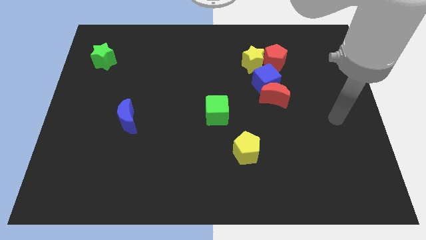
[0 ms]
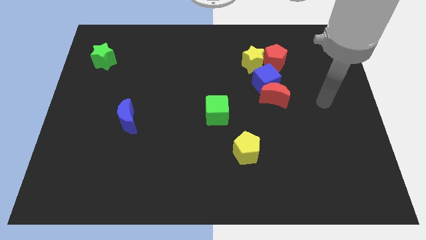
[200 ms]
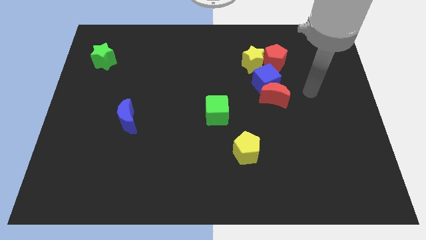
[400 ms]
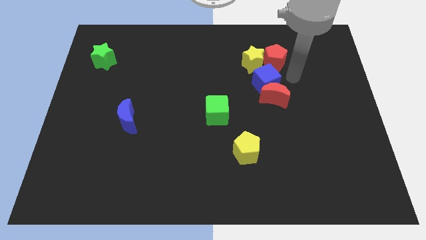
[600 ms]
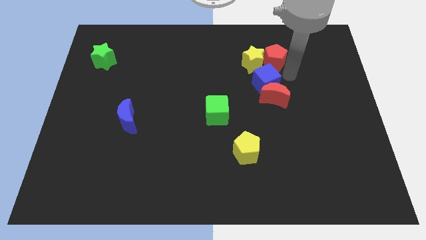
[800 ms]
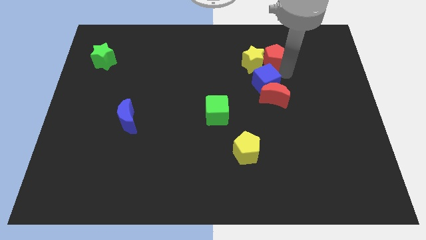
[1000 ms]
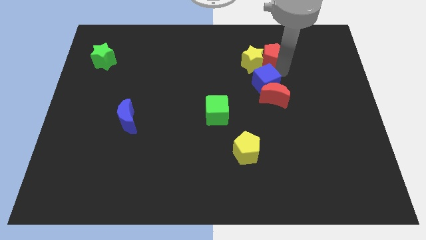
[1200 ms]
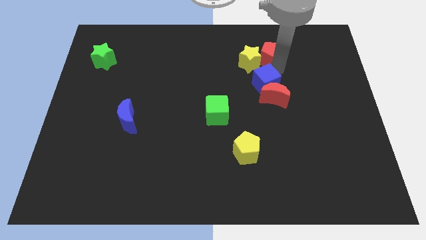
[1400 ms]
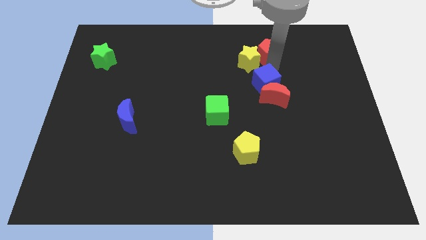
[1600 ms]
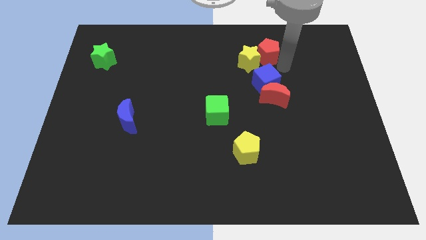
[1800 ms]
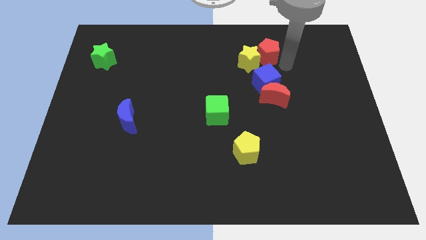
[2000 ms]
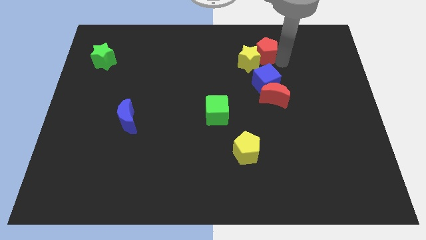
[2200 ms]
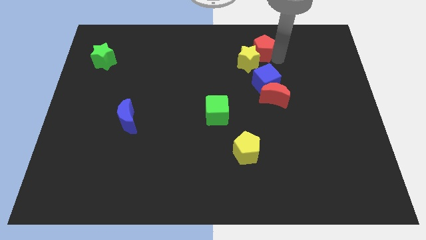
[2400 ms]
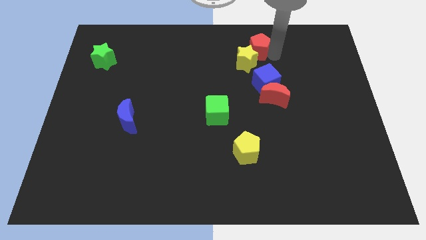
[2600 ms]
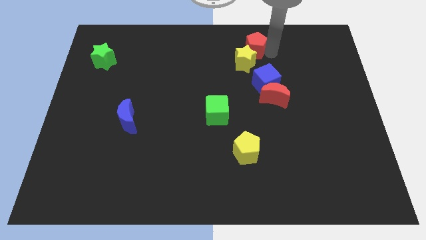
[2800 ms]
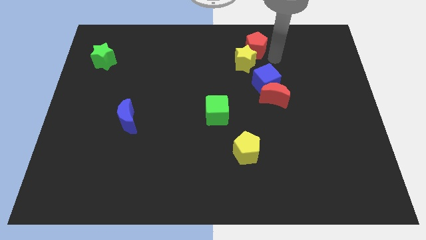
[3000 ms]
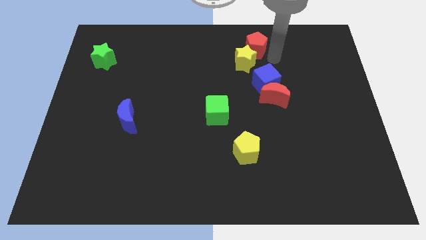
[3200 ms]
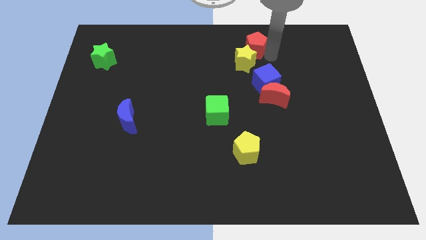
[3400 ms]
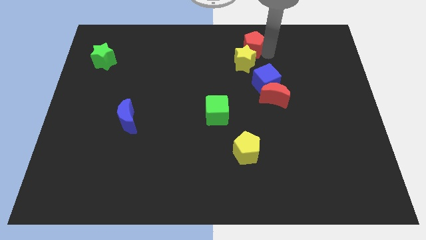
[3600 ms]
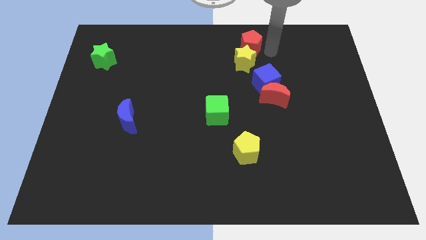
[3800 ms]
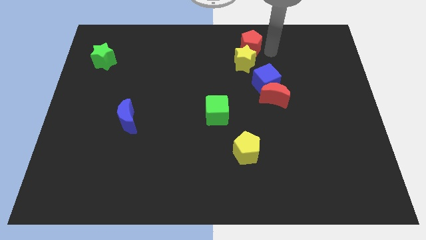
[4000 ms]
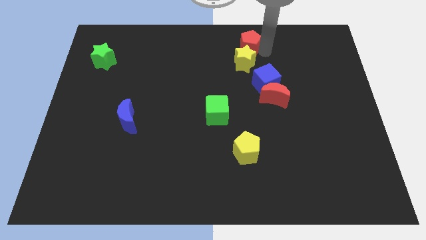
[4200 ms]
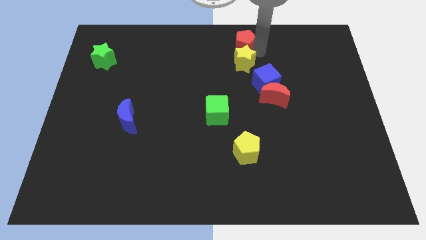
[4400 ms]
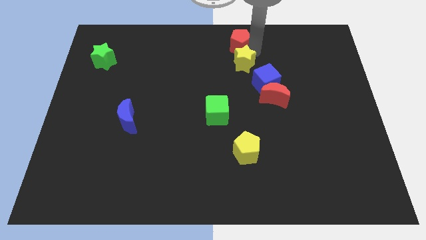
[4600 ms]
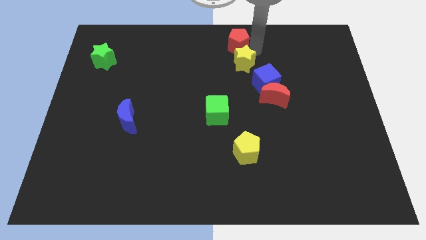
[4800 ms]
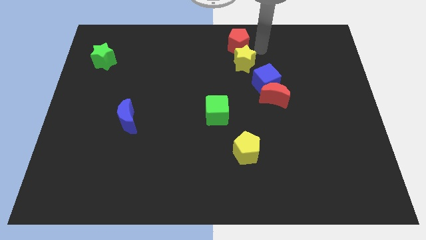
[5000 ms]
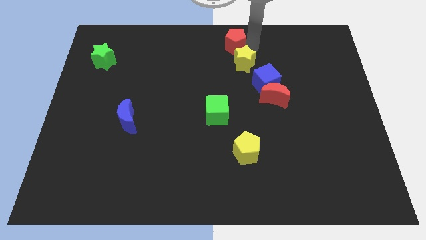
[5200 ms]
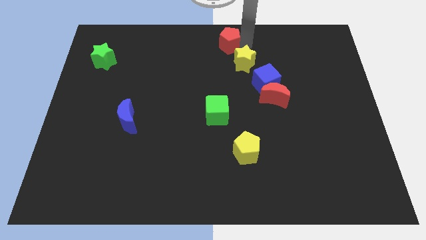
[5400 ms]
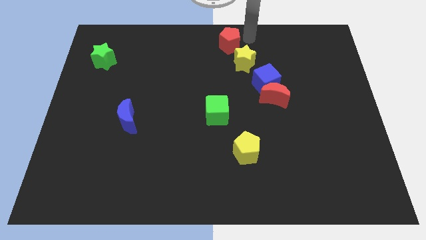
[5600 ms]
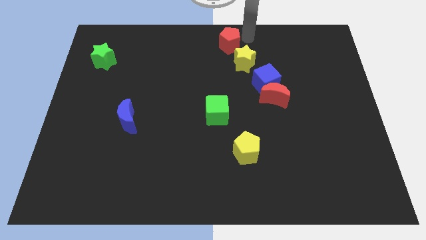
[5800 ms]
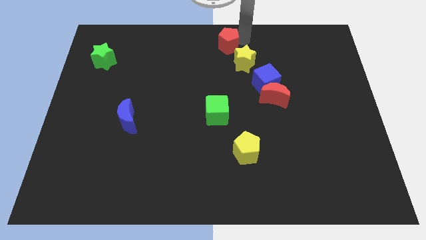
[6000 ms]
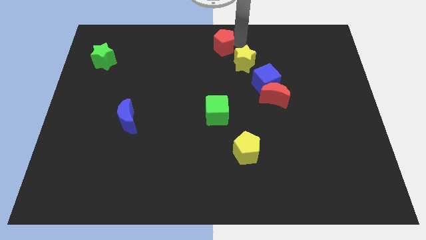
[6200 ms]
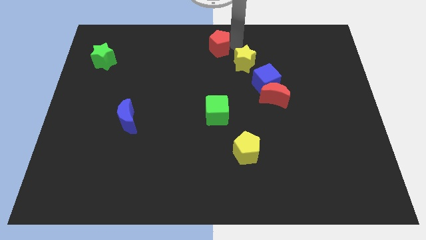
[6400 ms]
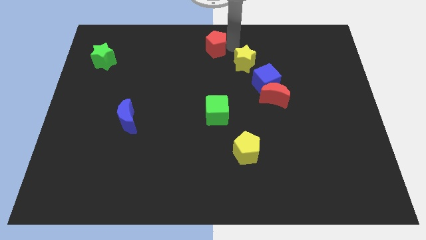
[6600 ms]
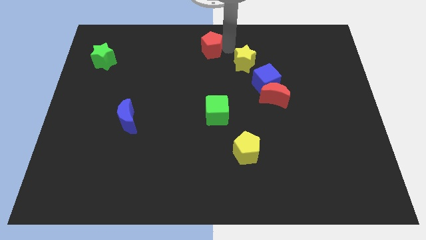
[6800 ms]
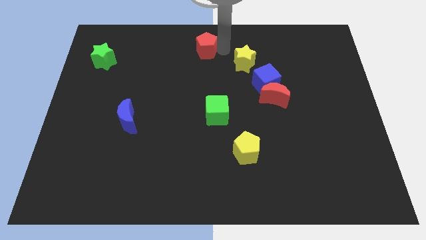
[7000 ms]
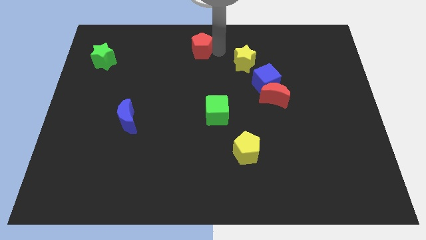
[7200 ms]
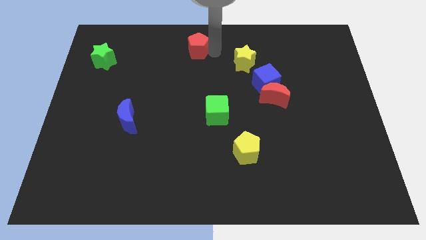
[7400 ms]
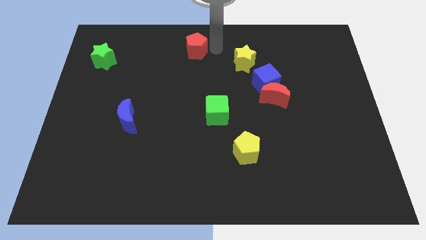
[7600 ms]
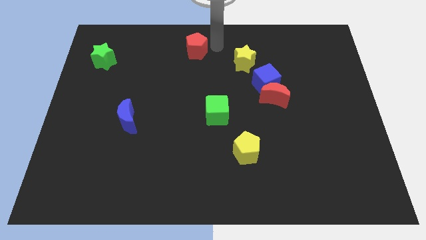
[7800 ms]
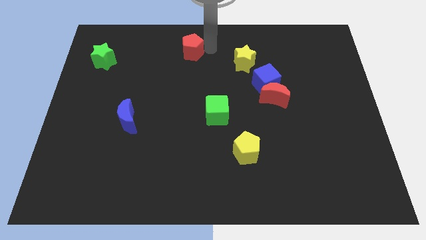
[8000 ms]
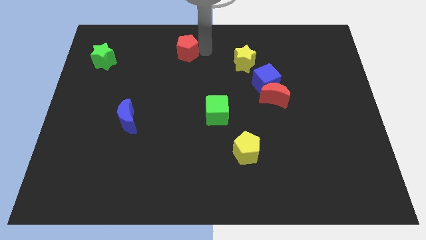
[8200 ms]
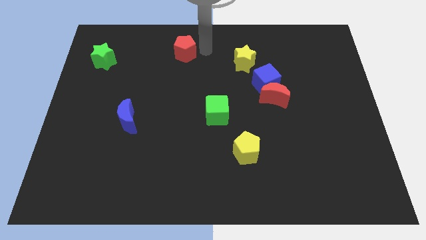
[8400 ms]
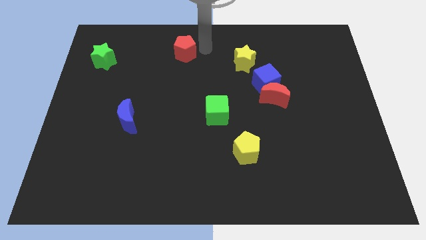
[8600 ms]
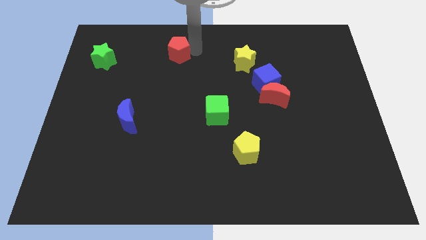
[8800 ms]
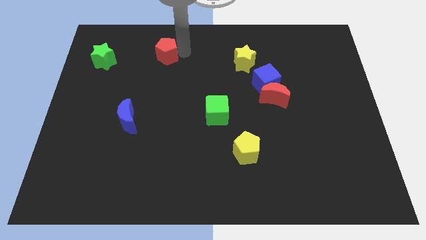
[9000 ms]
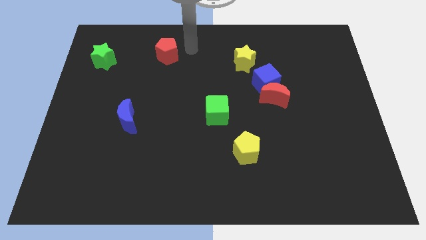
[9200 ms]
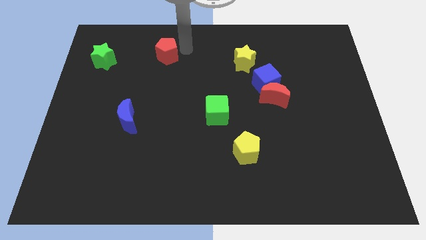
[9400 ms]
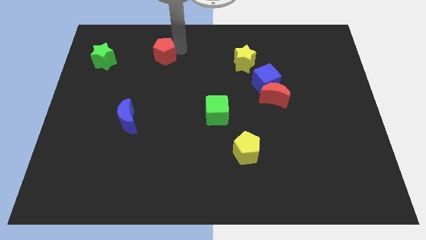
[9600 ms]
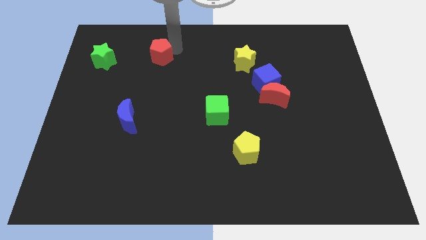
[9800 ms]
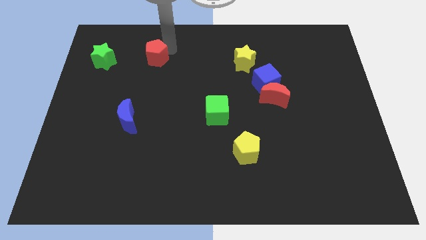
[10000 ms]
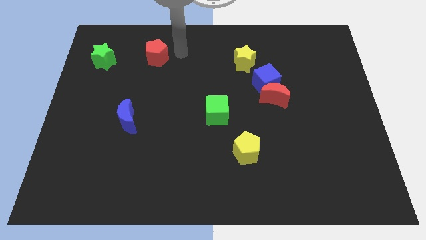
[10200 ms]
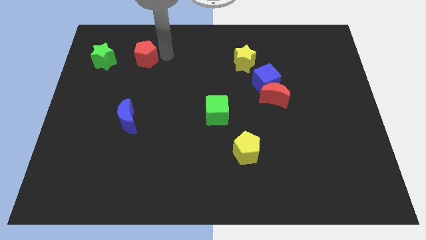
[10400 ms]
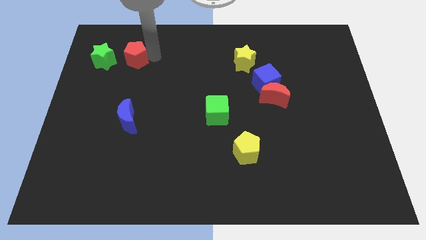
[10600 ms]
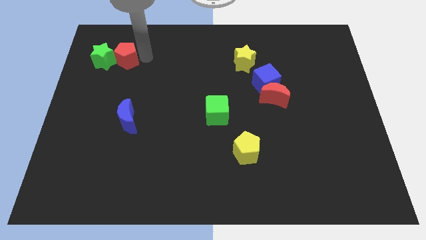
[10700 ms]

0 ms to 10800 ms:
push the red pentagon next to the green star

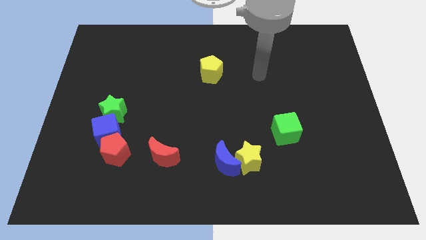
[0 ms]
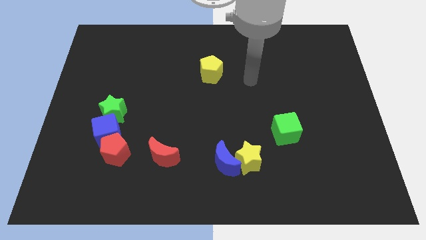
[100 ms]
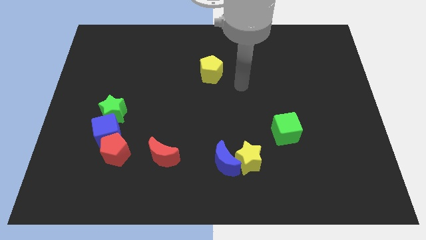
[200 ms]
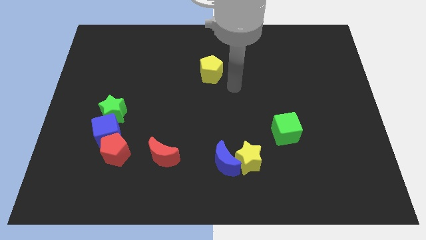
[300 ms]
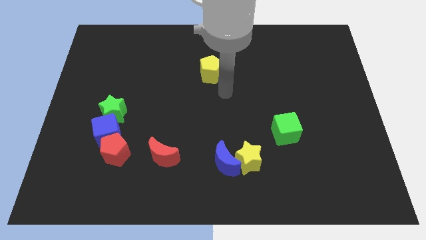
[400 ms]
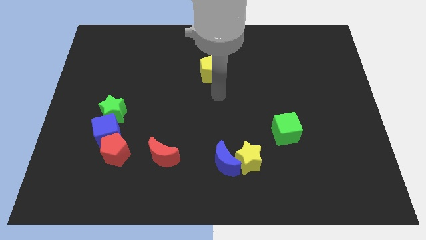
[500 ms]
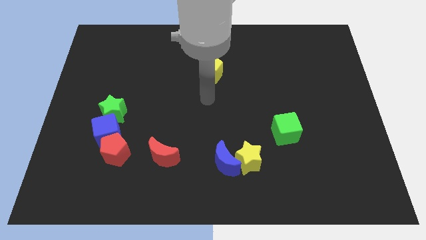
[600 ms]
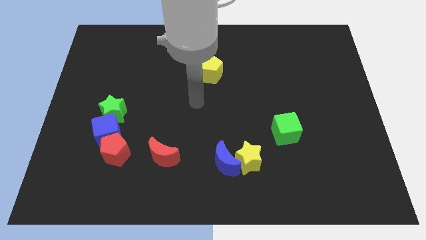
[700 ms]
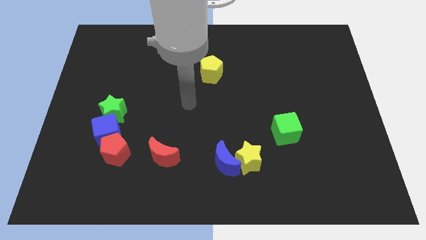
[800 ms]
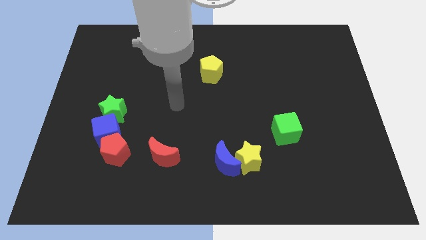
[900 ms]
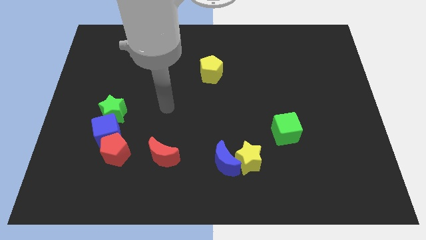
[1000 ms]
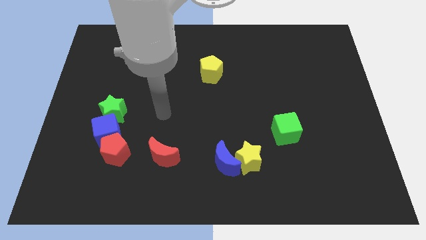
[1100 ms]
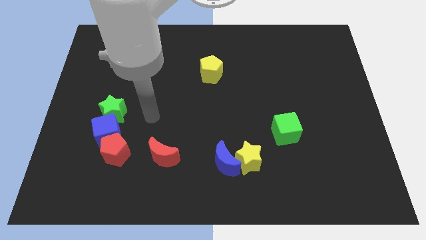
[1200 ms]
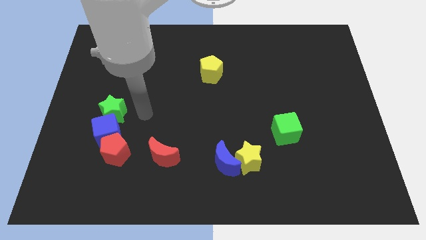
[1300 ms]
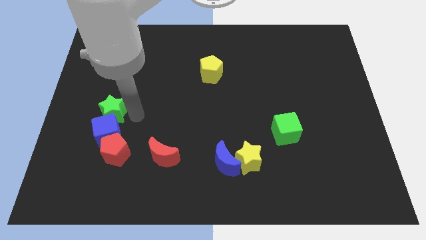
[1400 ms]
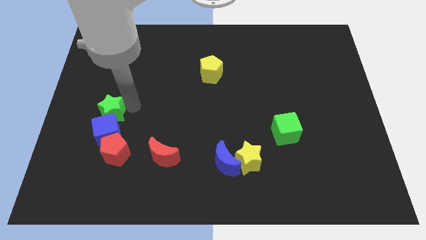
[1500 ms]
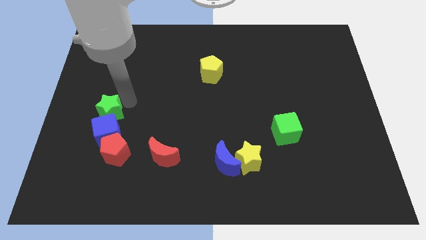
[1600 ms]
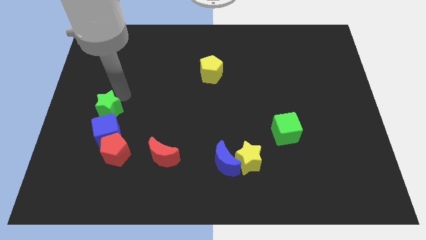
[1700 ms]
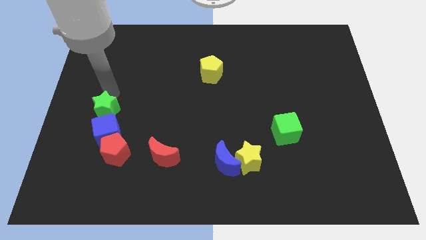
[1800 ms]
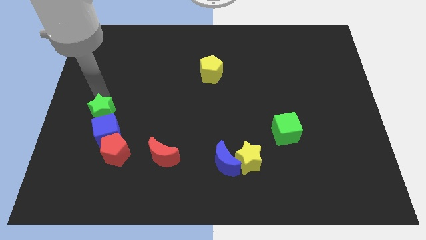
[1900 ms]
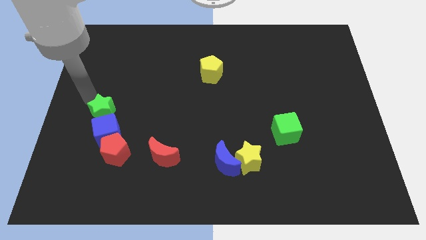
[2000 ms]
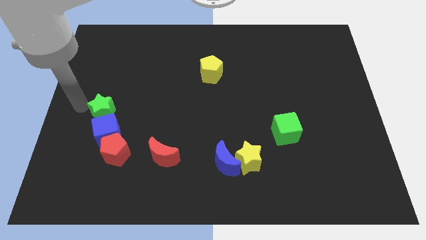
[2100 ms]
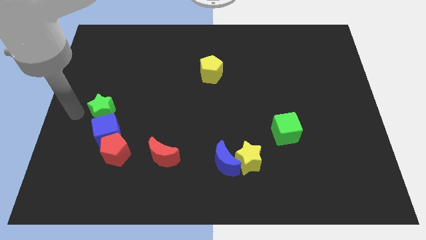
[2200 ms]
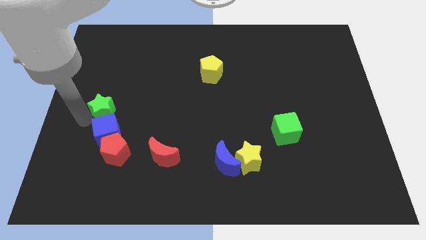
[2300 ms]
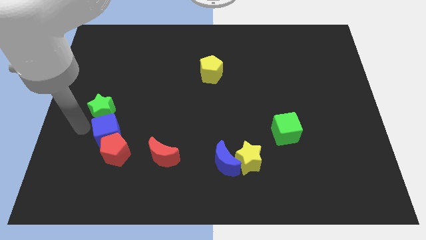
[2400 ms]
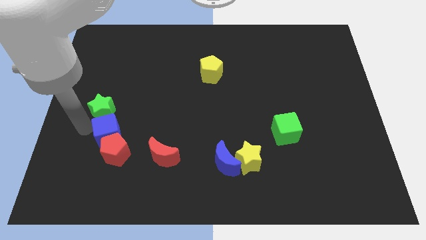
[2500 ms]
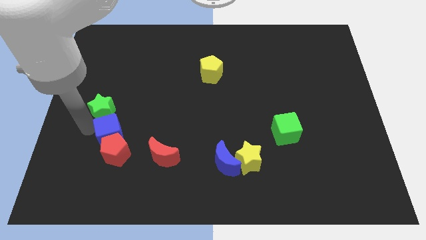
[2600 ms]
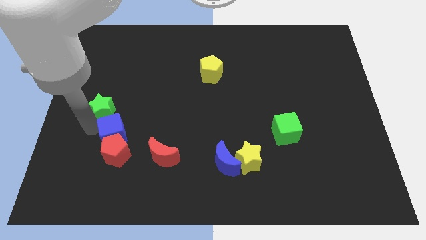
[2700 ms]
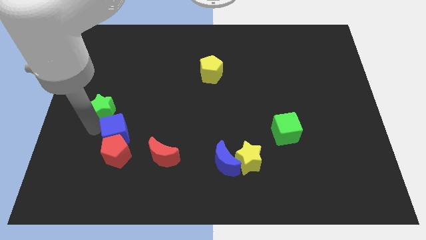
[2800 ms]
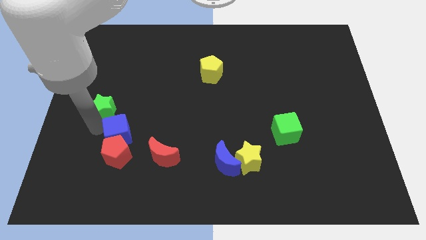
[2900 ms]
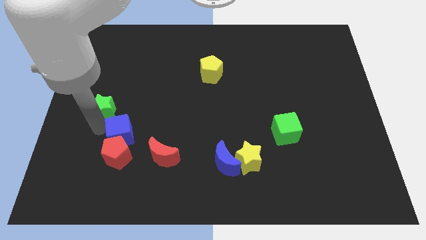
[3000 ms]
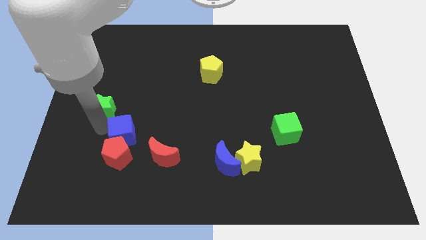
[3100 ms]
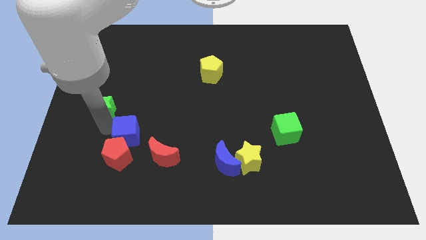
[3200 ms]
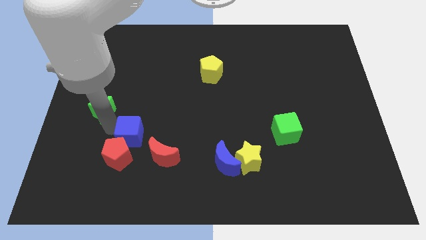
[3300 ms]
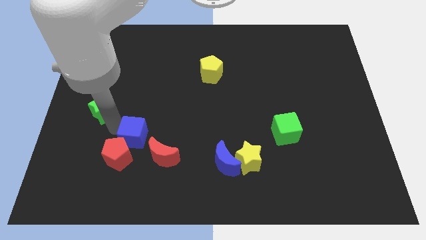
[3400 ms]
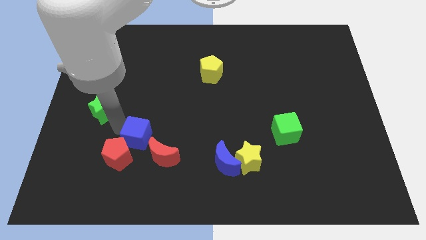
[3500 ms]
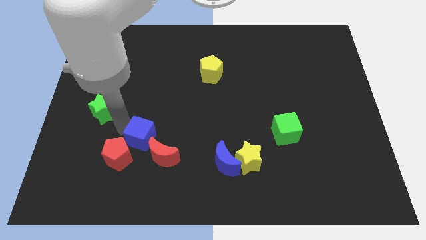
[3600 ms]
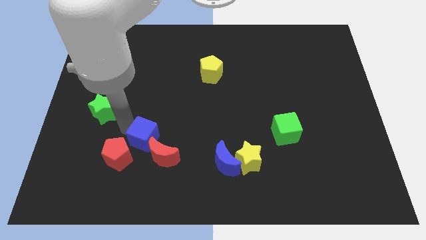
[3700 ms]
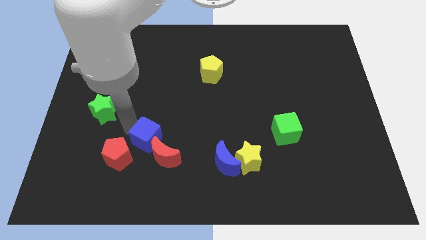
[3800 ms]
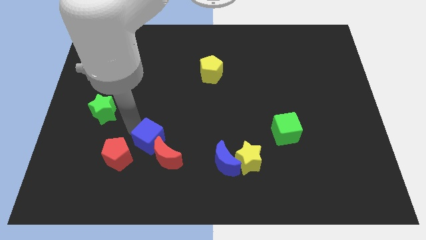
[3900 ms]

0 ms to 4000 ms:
slide the blue cube close to the red moon
